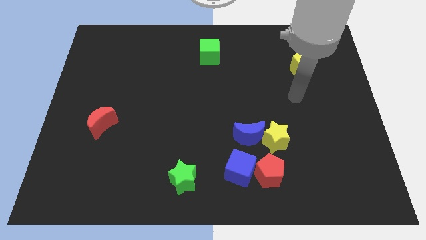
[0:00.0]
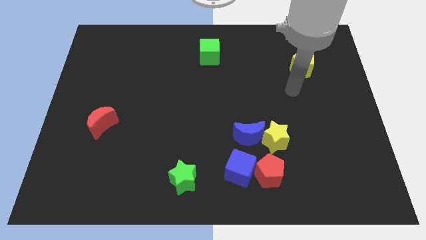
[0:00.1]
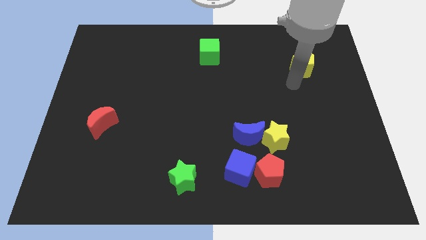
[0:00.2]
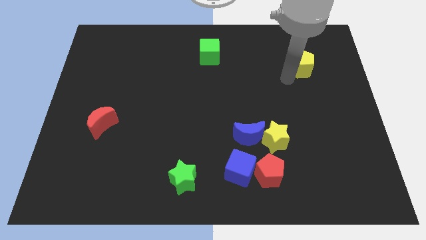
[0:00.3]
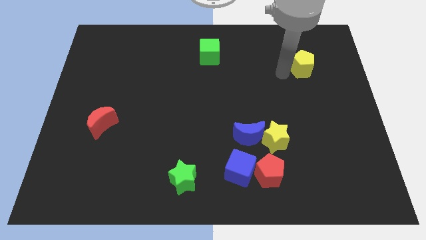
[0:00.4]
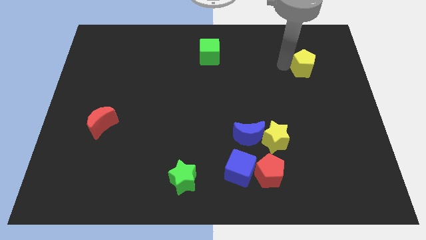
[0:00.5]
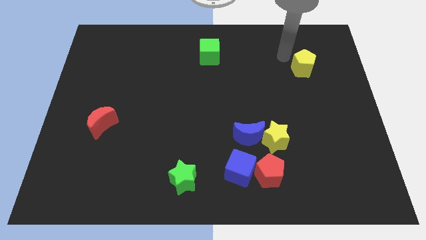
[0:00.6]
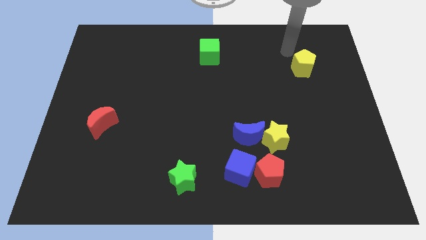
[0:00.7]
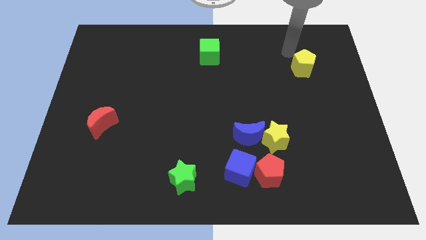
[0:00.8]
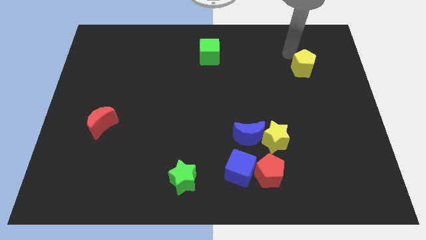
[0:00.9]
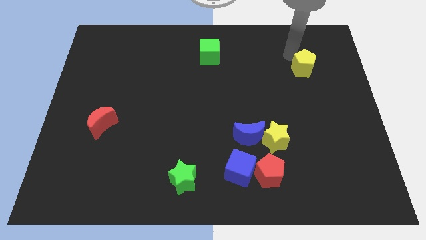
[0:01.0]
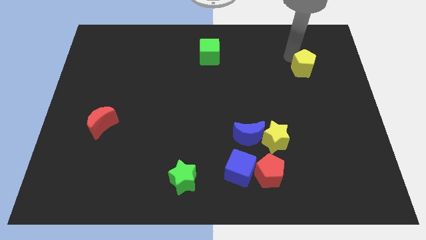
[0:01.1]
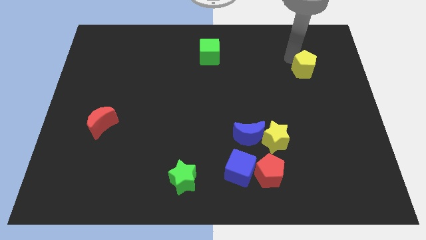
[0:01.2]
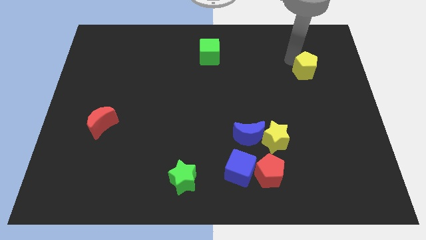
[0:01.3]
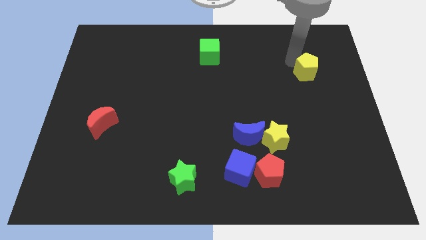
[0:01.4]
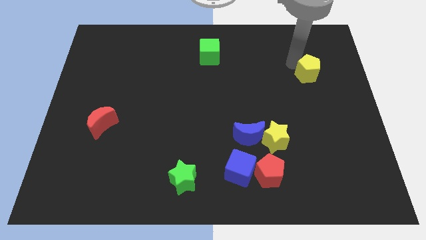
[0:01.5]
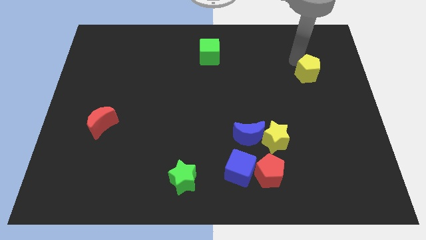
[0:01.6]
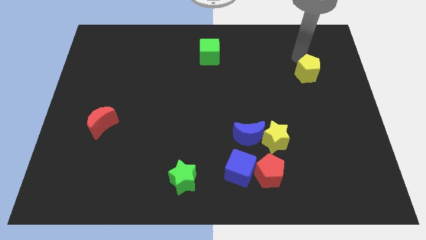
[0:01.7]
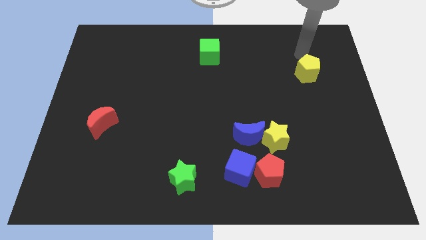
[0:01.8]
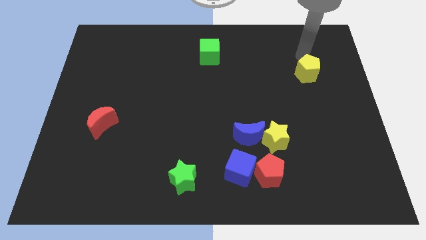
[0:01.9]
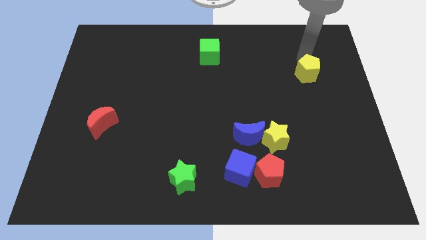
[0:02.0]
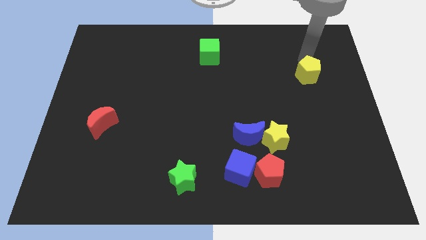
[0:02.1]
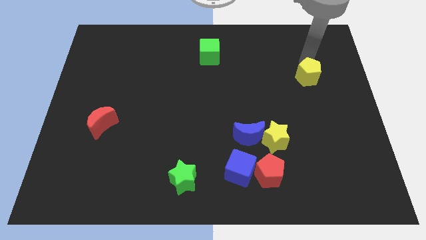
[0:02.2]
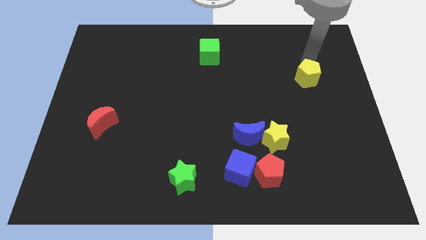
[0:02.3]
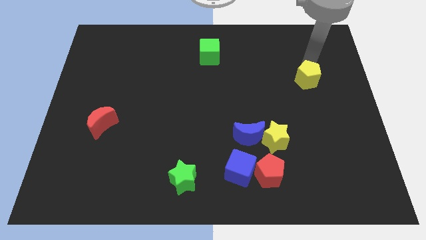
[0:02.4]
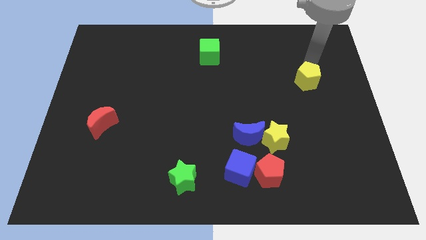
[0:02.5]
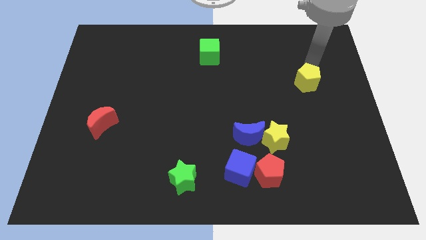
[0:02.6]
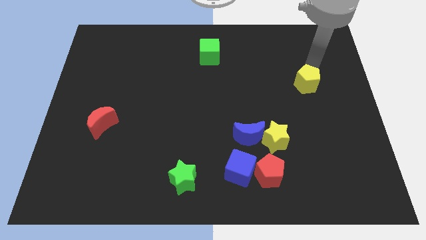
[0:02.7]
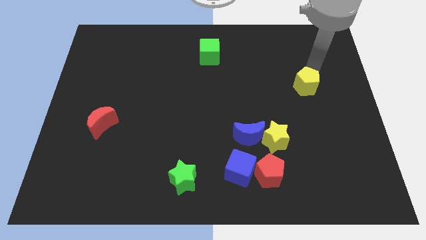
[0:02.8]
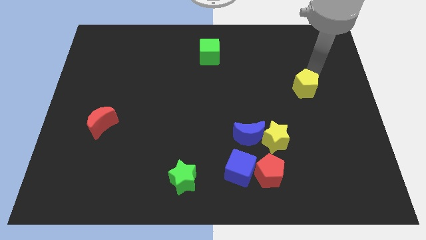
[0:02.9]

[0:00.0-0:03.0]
slightly push the yellow pentagon down

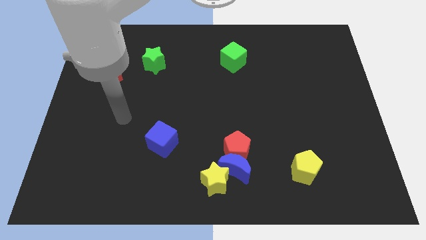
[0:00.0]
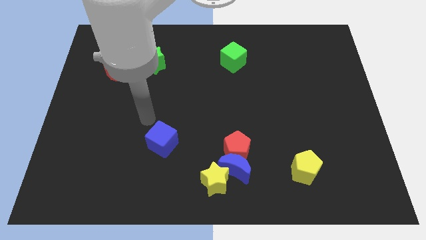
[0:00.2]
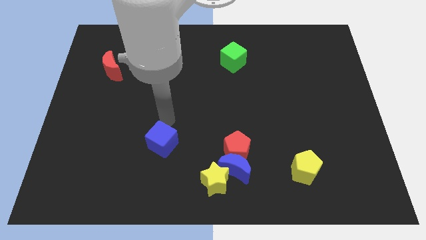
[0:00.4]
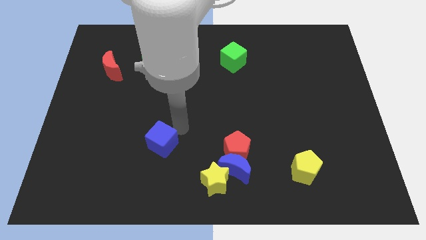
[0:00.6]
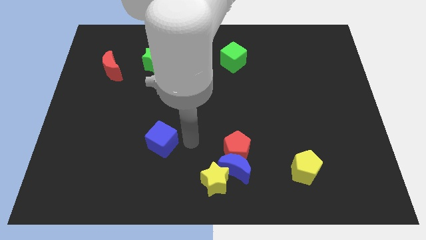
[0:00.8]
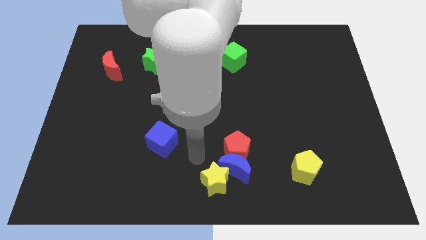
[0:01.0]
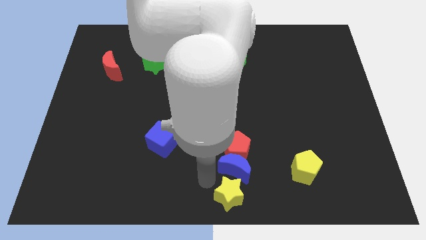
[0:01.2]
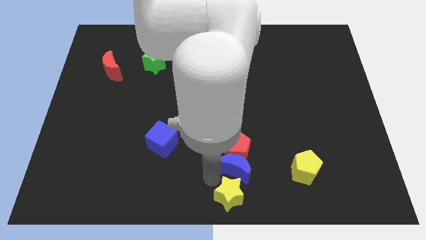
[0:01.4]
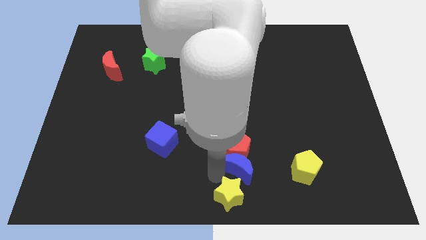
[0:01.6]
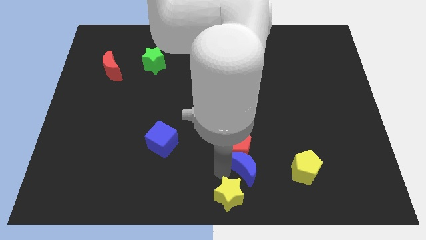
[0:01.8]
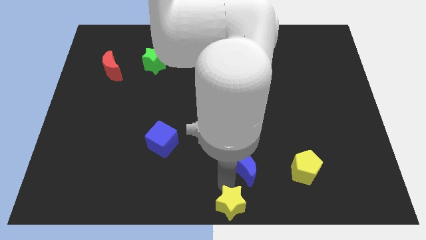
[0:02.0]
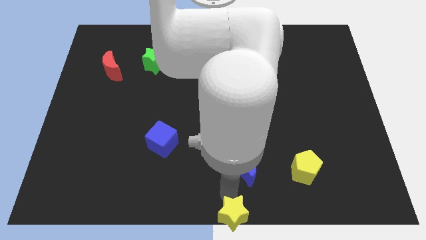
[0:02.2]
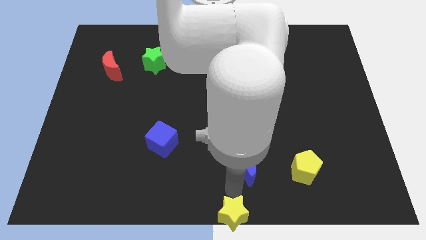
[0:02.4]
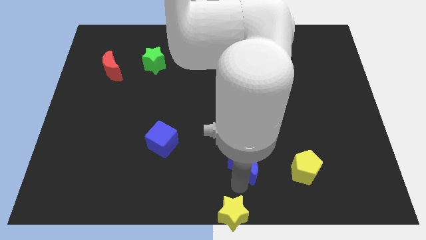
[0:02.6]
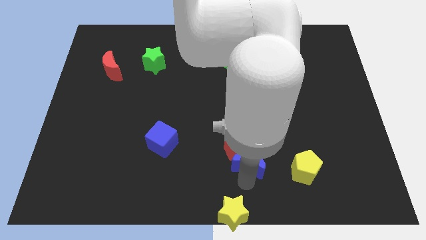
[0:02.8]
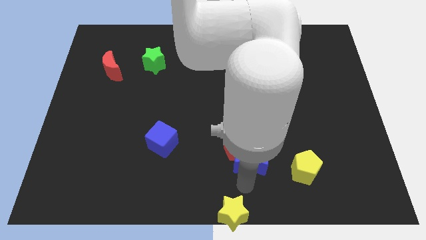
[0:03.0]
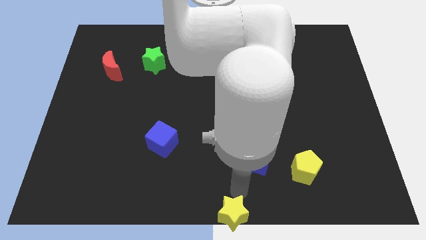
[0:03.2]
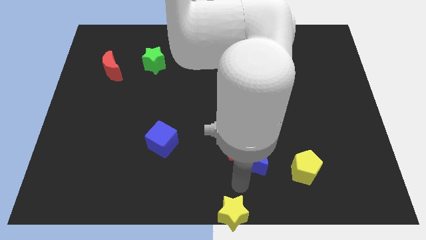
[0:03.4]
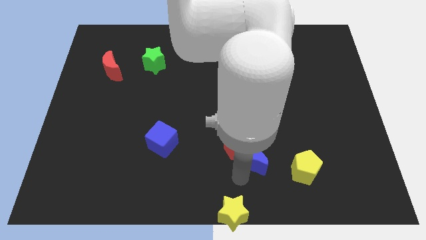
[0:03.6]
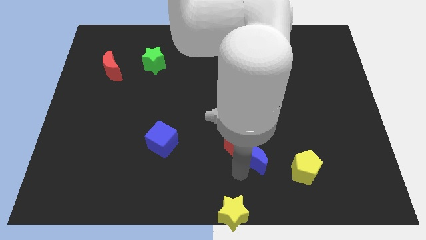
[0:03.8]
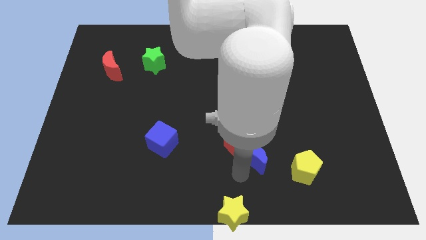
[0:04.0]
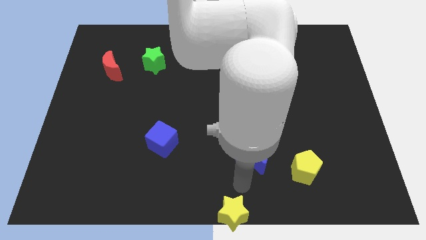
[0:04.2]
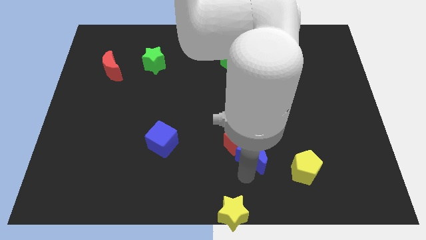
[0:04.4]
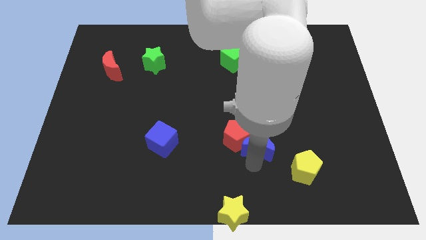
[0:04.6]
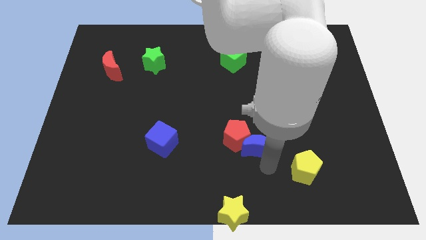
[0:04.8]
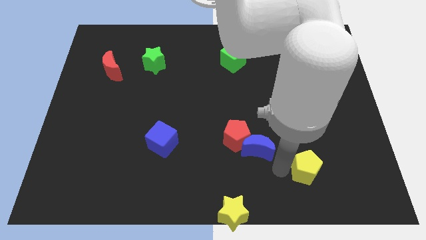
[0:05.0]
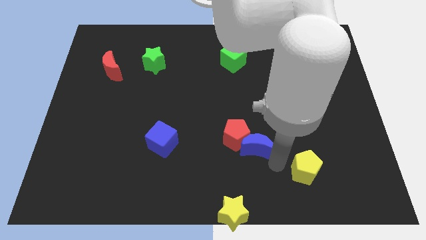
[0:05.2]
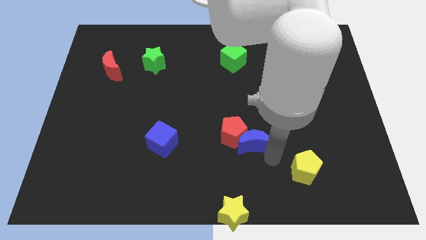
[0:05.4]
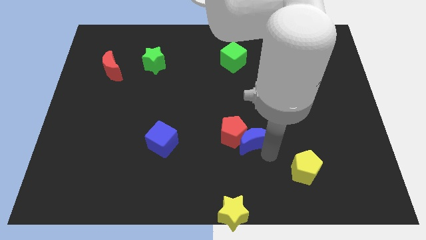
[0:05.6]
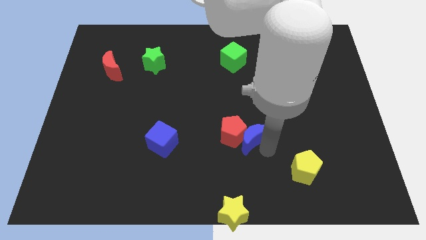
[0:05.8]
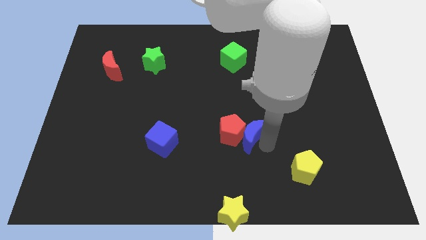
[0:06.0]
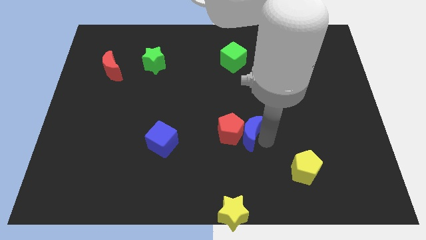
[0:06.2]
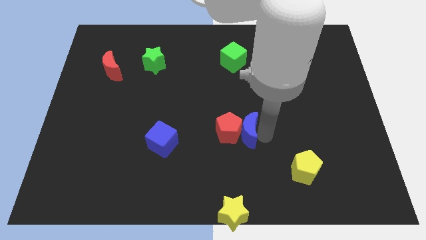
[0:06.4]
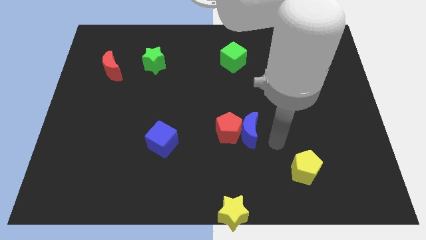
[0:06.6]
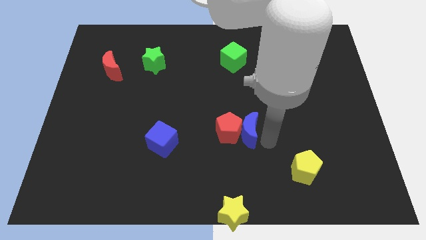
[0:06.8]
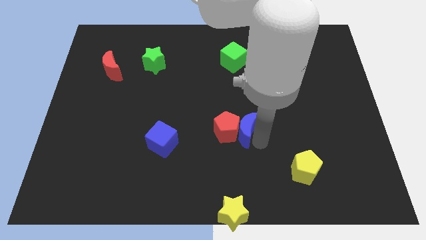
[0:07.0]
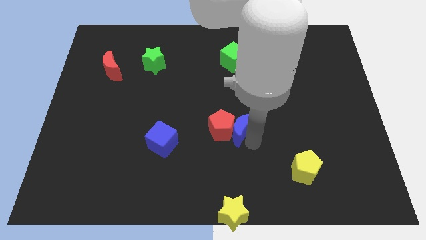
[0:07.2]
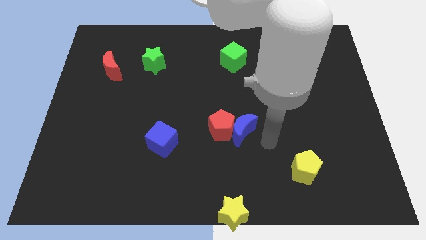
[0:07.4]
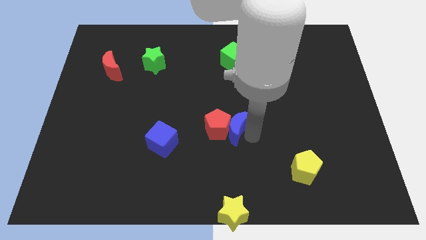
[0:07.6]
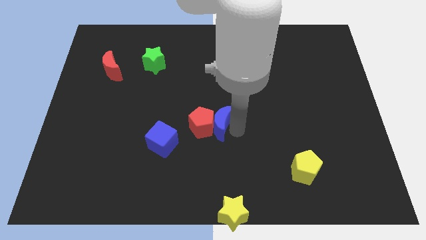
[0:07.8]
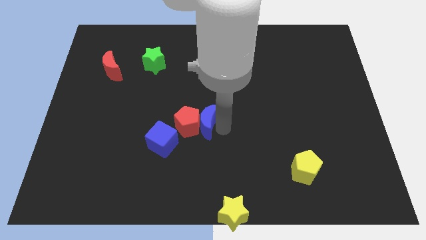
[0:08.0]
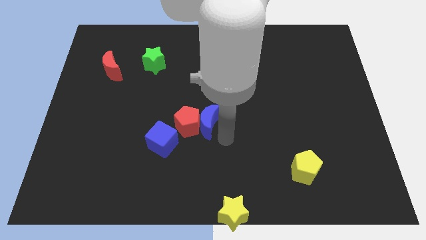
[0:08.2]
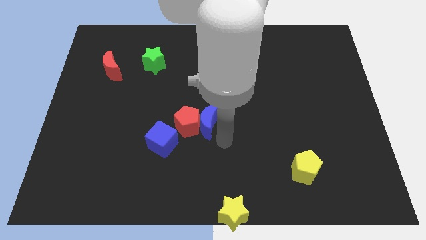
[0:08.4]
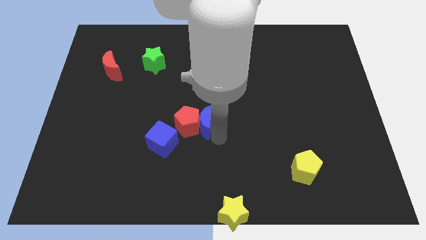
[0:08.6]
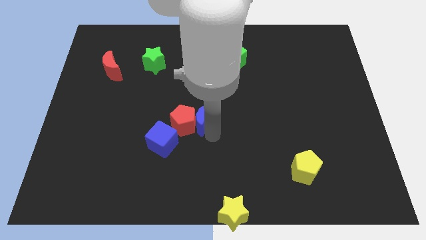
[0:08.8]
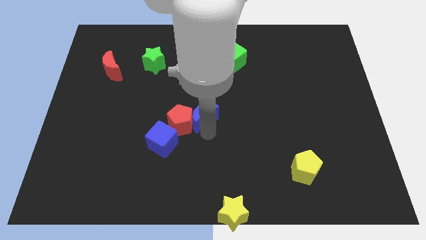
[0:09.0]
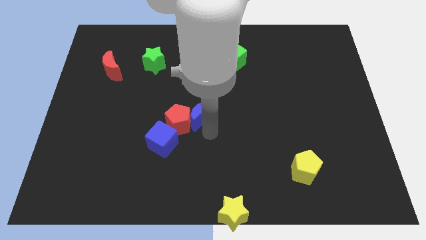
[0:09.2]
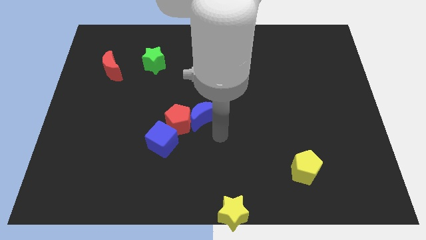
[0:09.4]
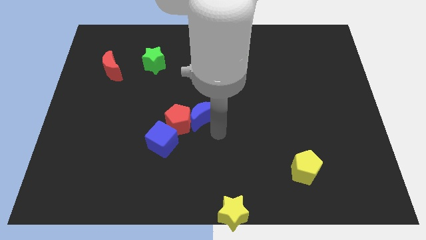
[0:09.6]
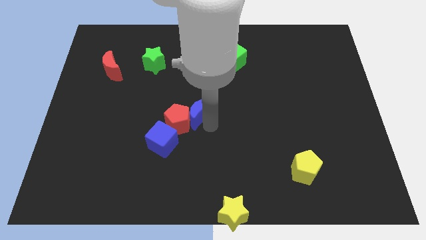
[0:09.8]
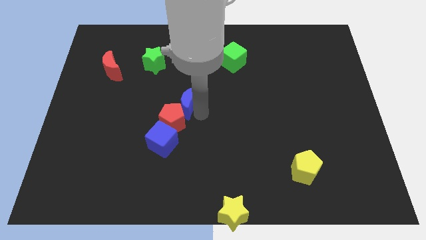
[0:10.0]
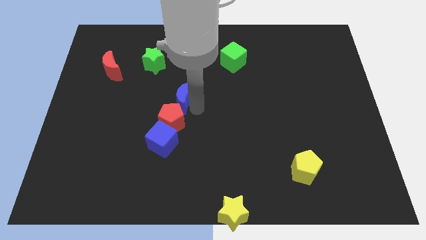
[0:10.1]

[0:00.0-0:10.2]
slide the blue moon diagonally up and to the left
